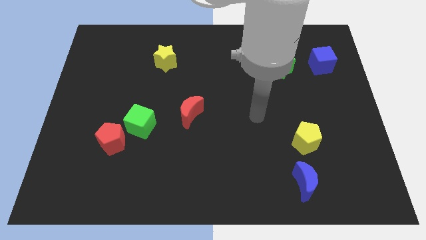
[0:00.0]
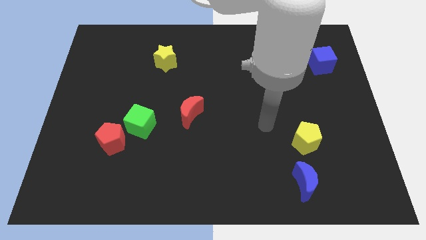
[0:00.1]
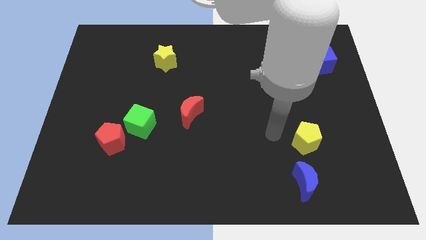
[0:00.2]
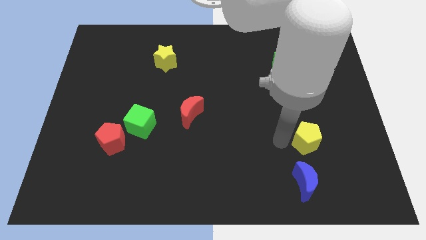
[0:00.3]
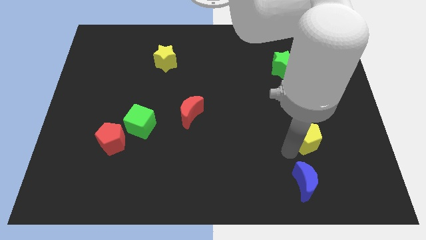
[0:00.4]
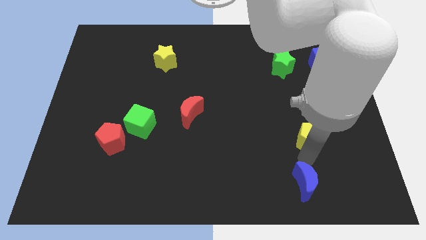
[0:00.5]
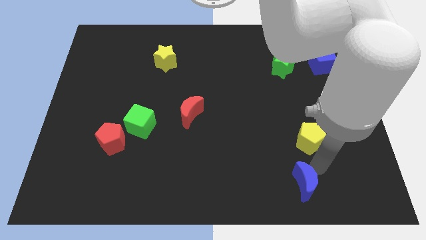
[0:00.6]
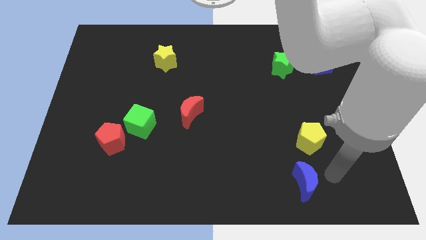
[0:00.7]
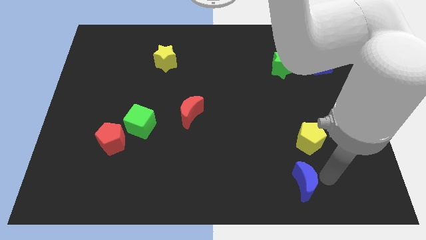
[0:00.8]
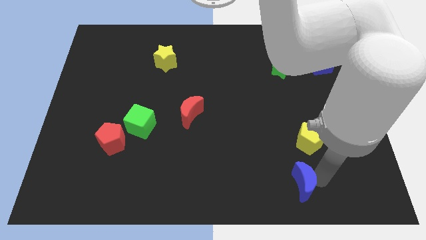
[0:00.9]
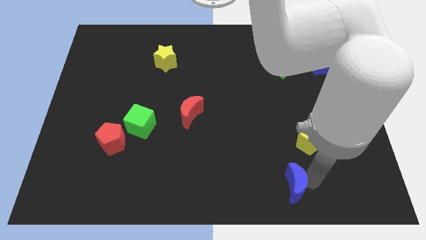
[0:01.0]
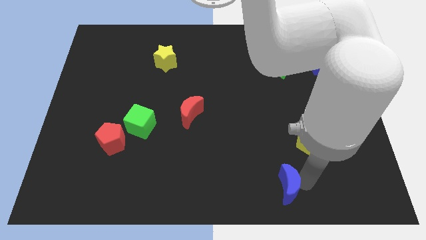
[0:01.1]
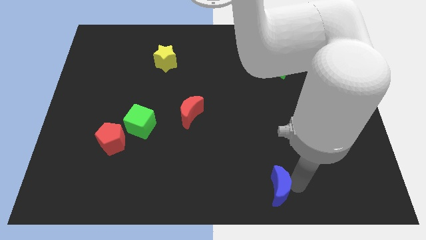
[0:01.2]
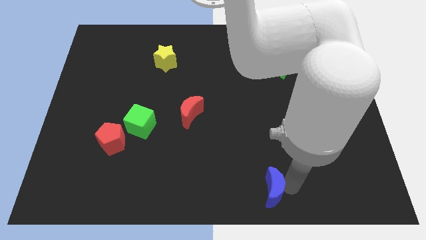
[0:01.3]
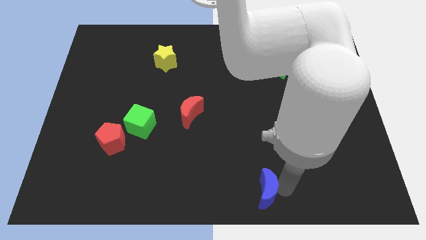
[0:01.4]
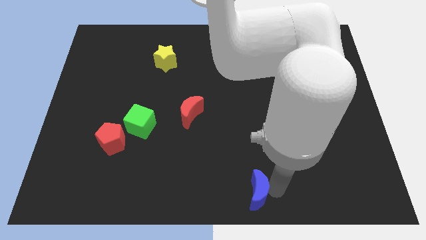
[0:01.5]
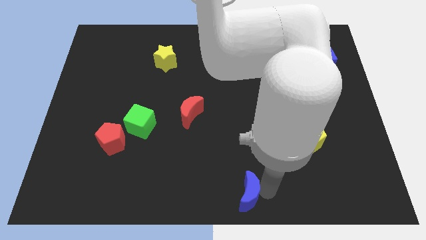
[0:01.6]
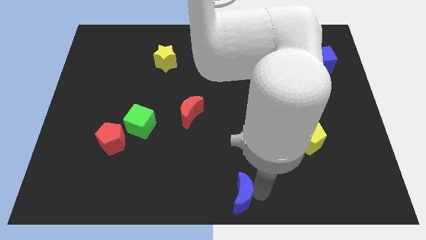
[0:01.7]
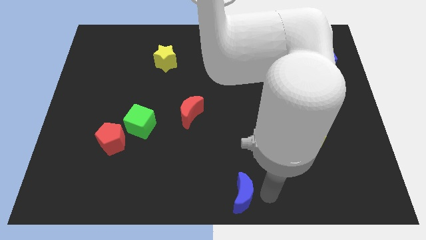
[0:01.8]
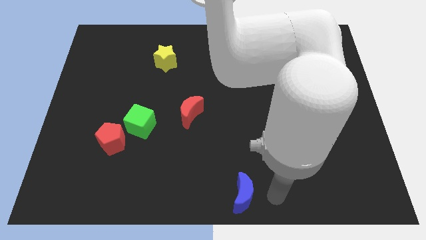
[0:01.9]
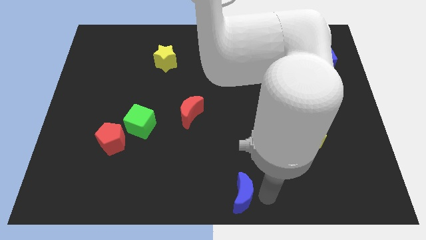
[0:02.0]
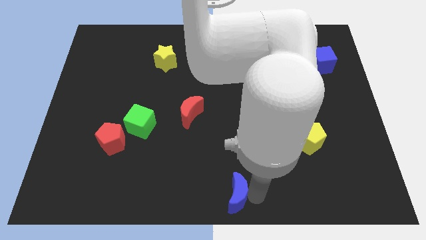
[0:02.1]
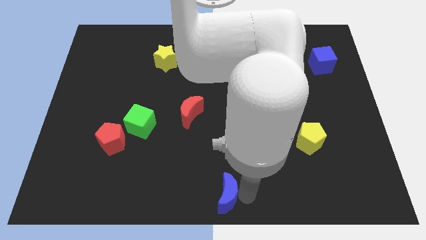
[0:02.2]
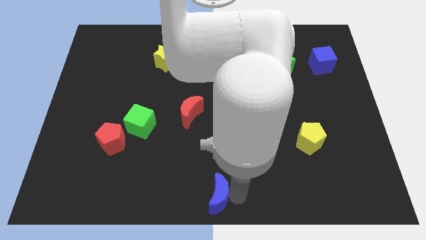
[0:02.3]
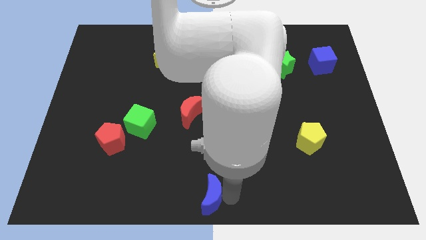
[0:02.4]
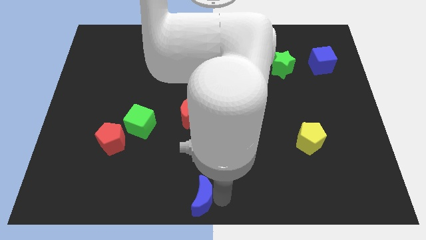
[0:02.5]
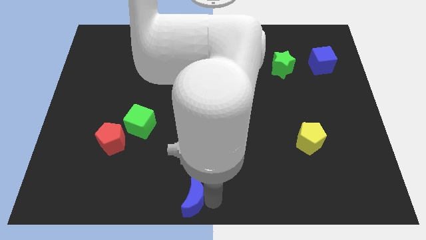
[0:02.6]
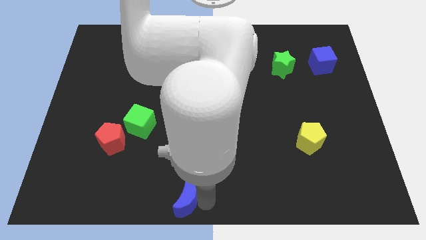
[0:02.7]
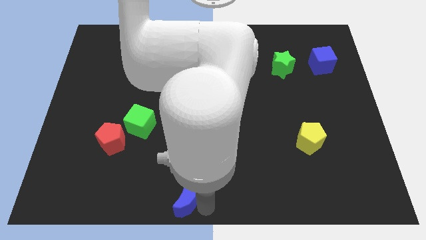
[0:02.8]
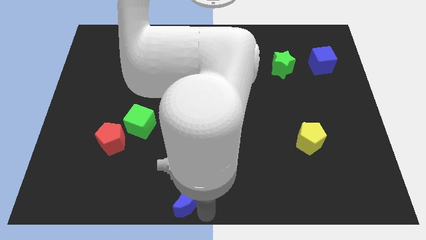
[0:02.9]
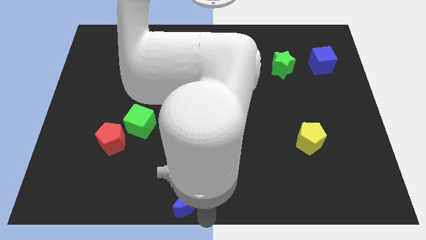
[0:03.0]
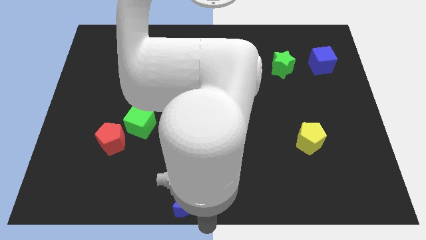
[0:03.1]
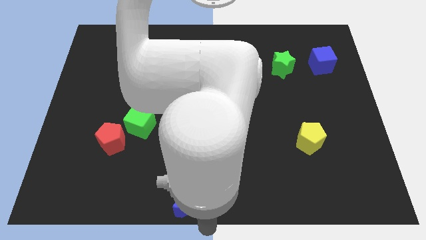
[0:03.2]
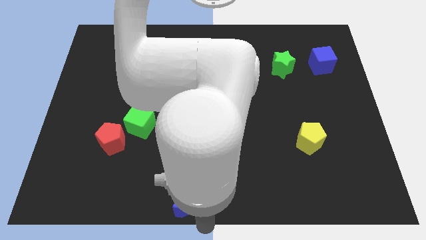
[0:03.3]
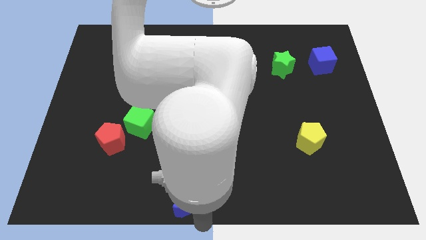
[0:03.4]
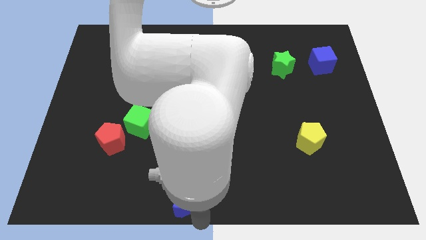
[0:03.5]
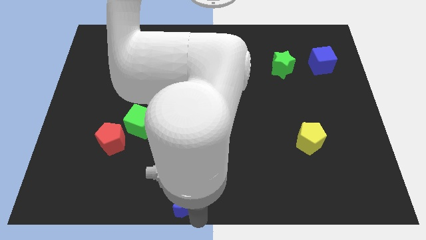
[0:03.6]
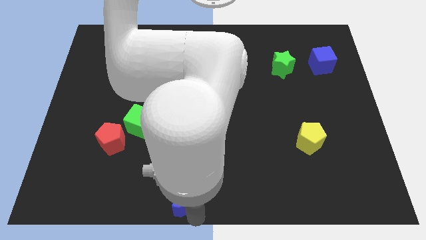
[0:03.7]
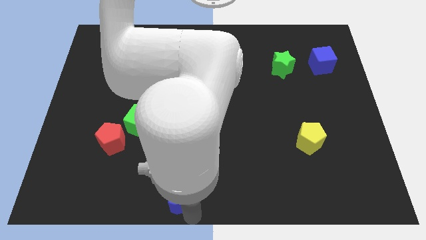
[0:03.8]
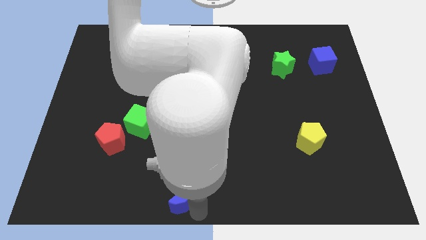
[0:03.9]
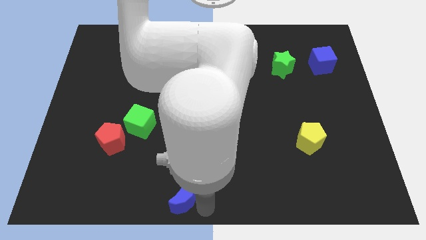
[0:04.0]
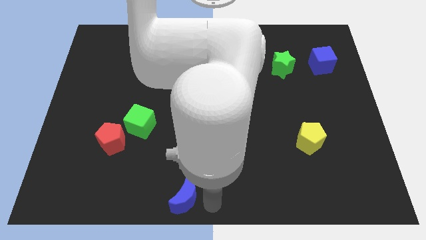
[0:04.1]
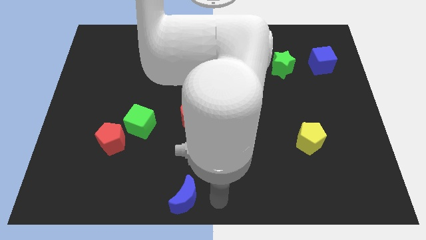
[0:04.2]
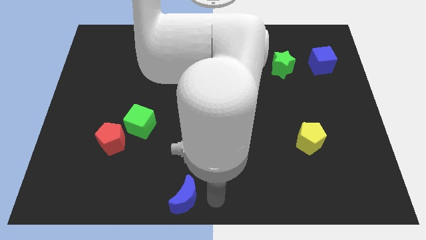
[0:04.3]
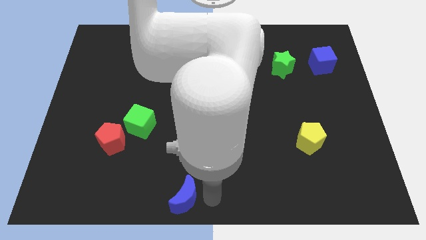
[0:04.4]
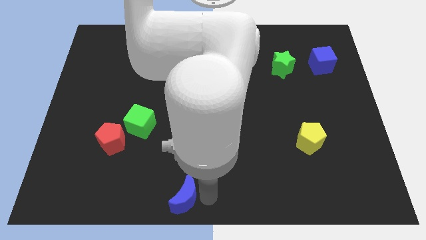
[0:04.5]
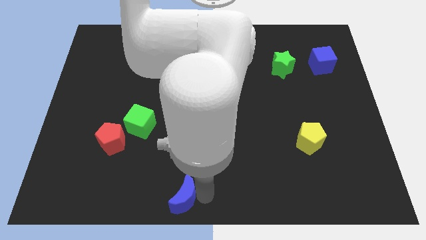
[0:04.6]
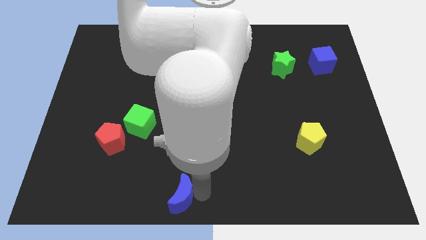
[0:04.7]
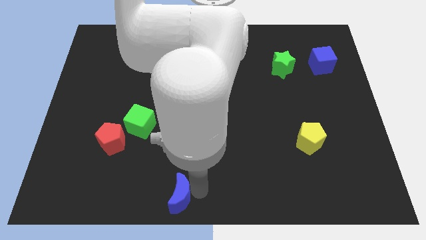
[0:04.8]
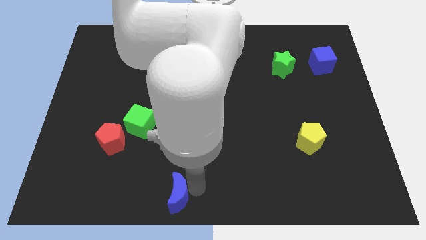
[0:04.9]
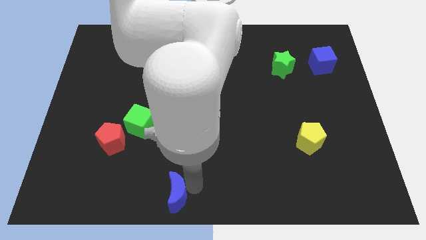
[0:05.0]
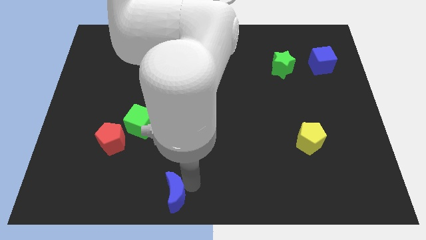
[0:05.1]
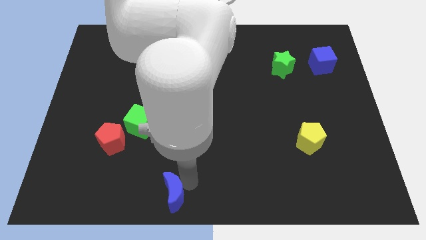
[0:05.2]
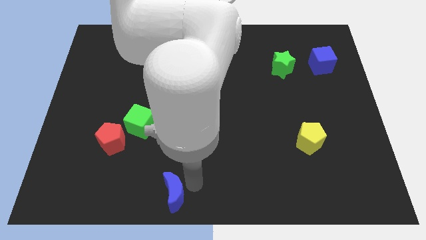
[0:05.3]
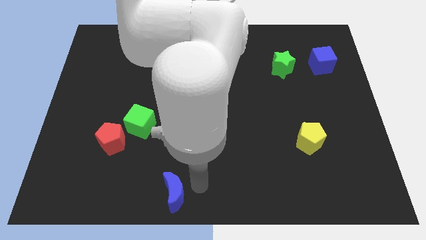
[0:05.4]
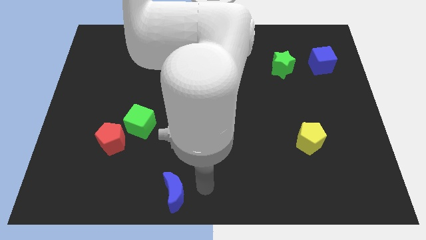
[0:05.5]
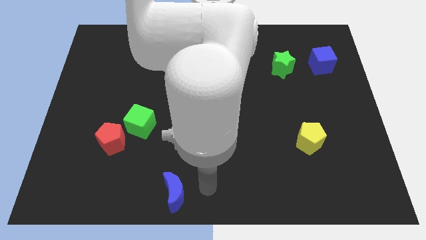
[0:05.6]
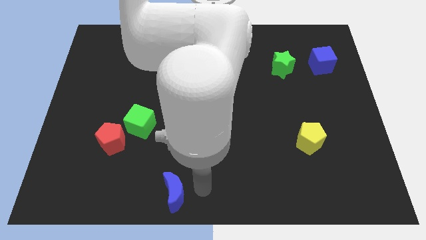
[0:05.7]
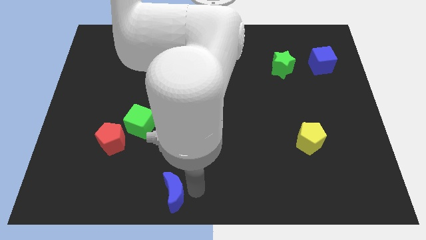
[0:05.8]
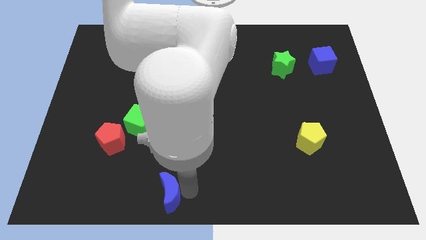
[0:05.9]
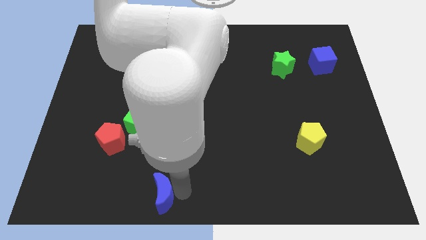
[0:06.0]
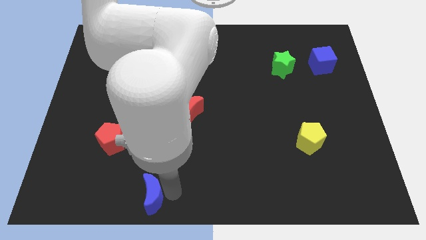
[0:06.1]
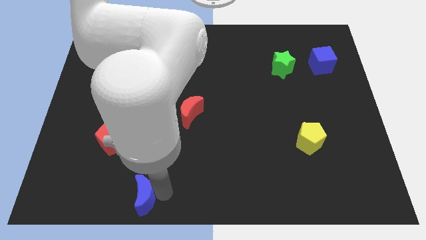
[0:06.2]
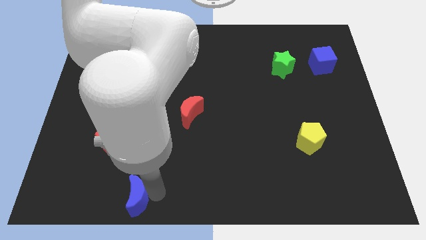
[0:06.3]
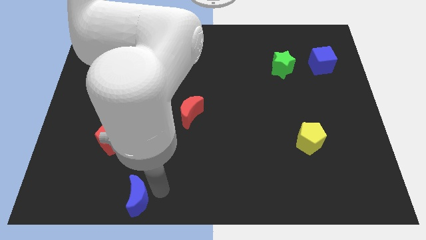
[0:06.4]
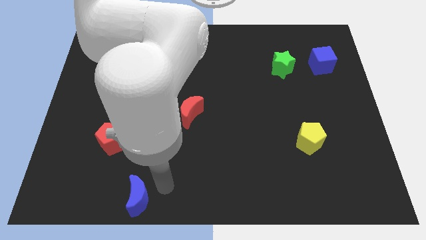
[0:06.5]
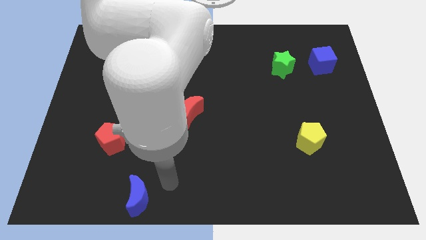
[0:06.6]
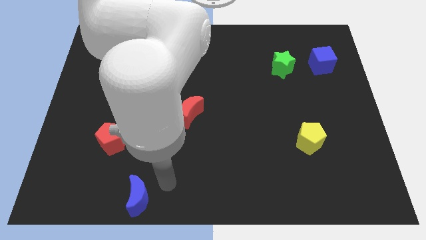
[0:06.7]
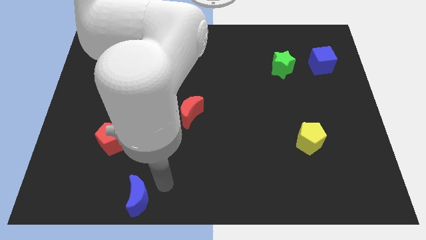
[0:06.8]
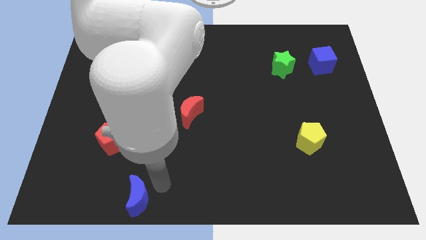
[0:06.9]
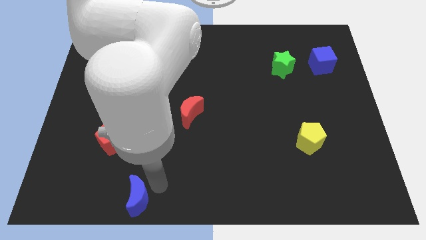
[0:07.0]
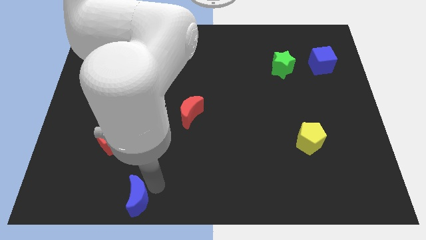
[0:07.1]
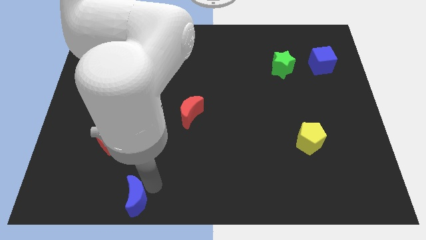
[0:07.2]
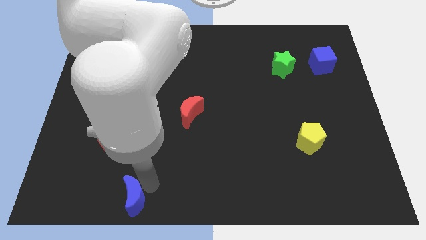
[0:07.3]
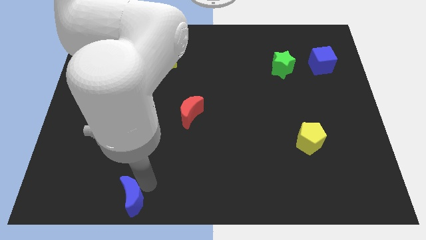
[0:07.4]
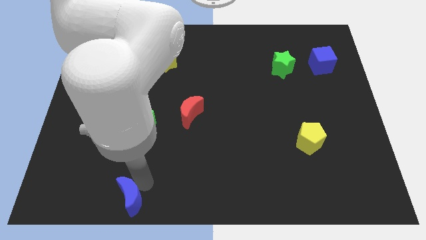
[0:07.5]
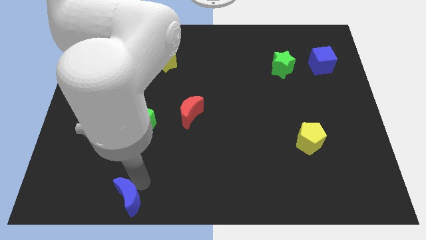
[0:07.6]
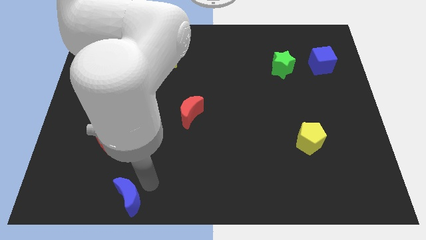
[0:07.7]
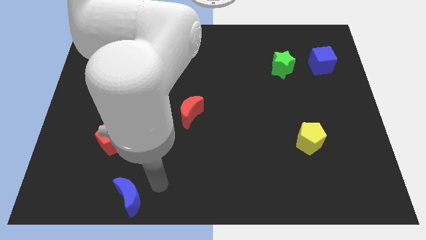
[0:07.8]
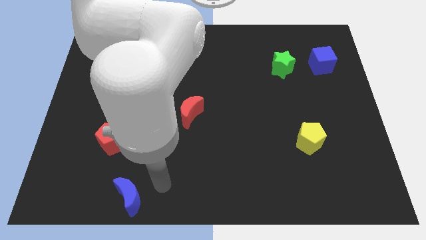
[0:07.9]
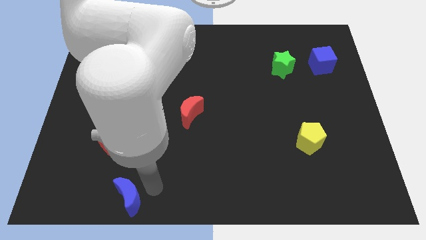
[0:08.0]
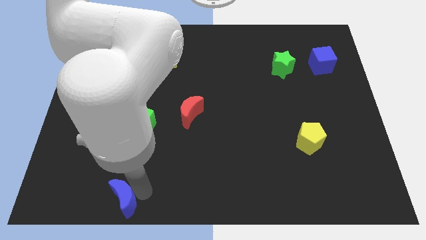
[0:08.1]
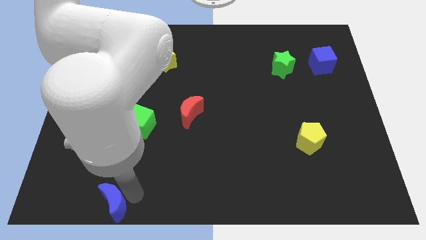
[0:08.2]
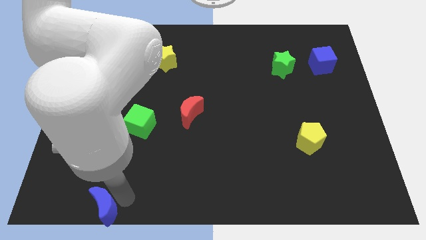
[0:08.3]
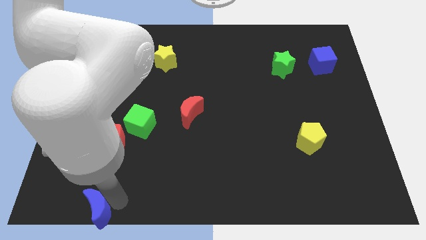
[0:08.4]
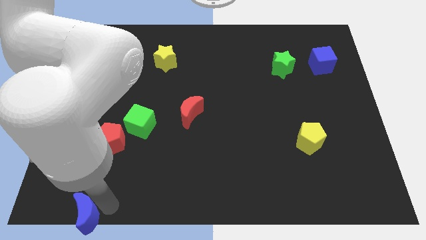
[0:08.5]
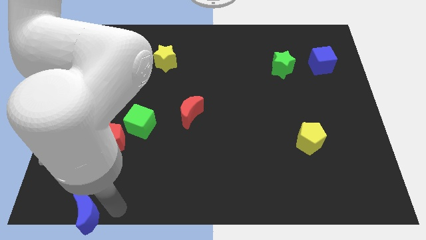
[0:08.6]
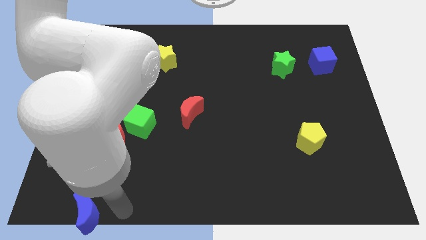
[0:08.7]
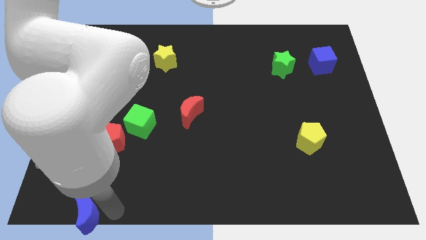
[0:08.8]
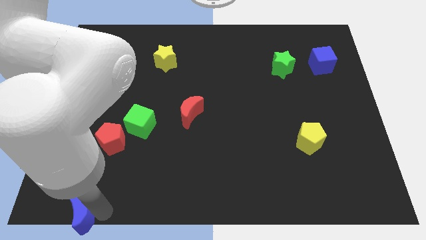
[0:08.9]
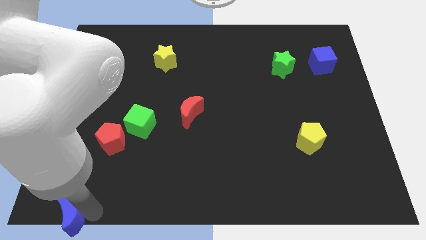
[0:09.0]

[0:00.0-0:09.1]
put the blue moon to the bottom left of the board
